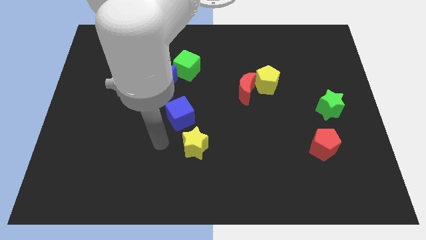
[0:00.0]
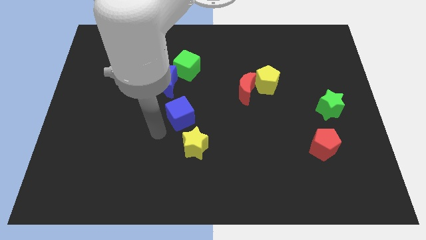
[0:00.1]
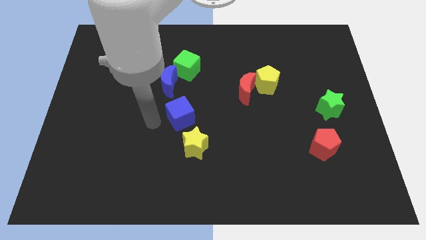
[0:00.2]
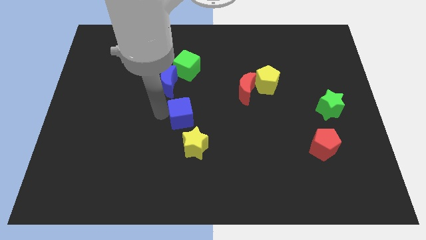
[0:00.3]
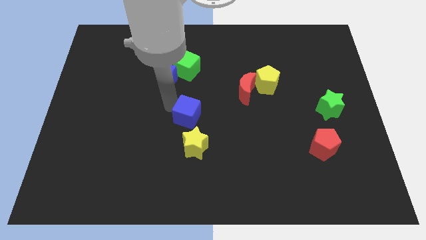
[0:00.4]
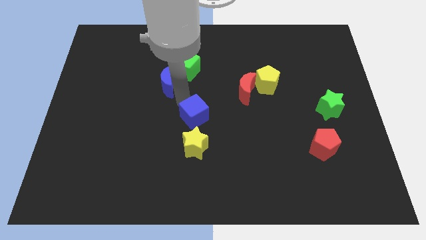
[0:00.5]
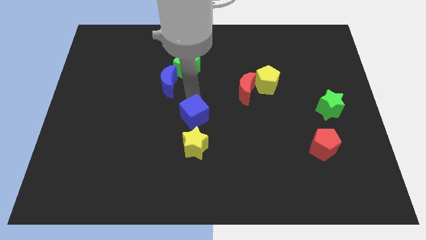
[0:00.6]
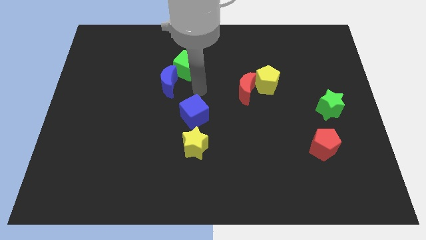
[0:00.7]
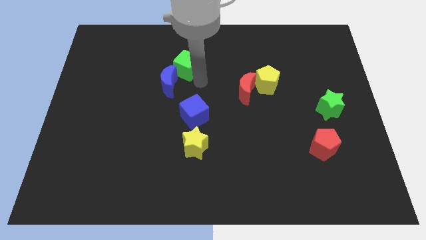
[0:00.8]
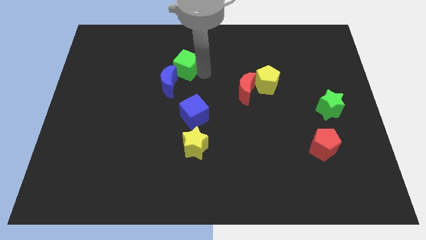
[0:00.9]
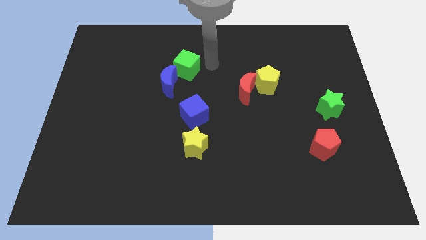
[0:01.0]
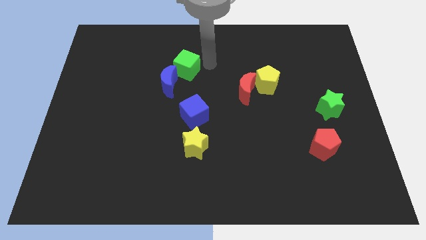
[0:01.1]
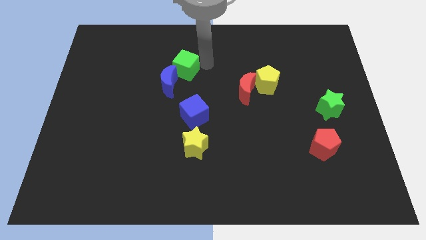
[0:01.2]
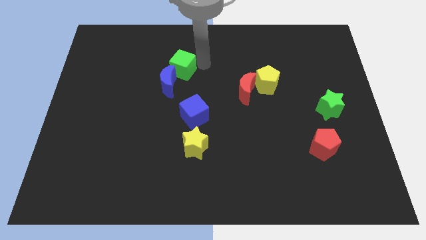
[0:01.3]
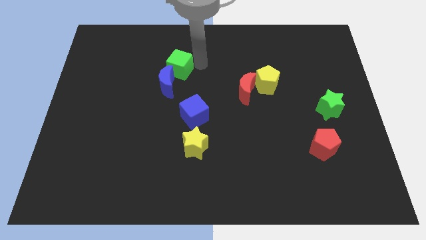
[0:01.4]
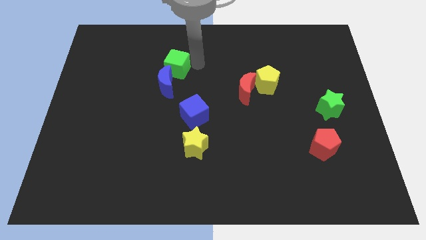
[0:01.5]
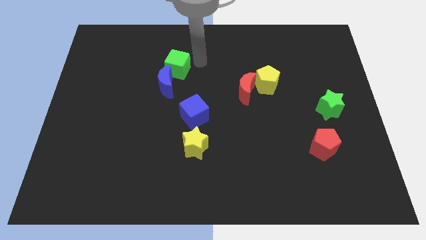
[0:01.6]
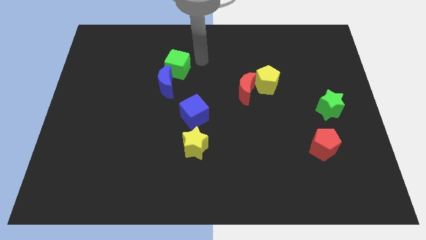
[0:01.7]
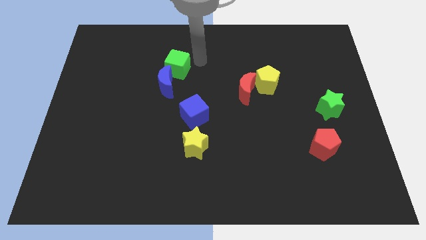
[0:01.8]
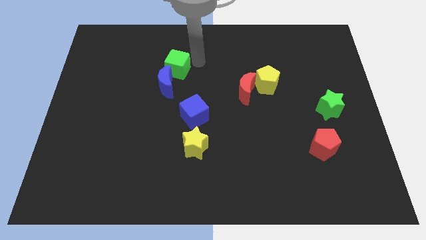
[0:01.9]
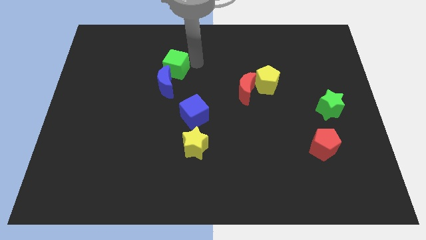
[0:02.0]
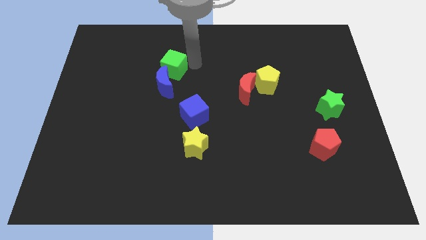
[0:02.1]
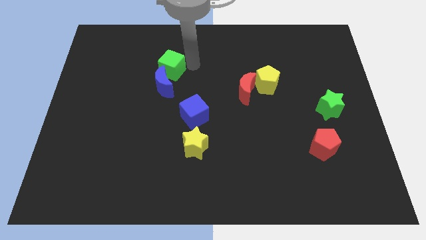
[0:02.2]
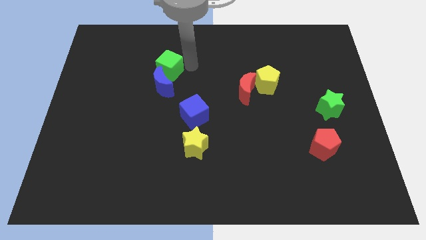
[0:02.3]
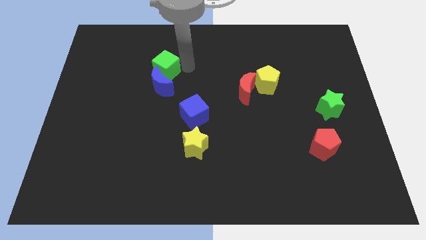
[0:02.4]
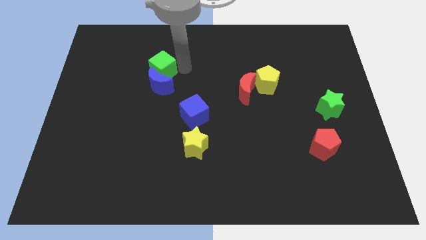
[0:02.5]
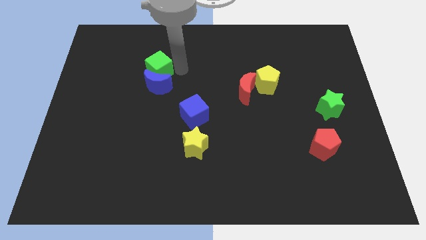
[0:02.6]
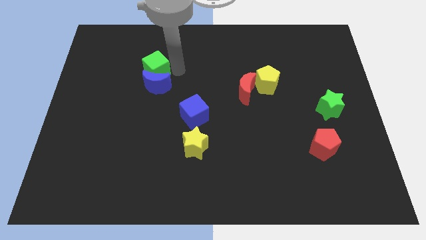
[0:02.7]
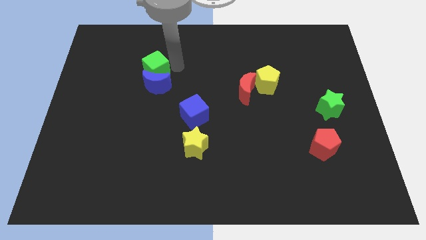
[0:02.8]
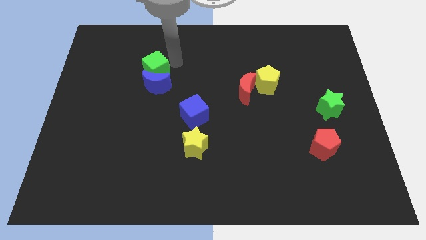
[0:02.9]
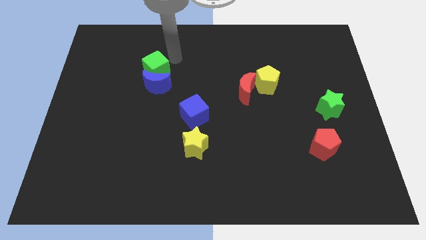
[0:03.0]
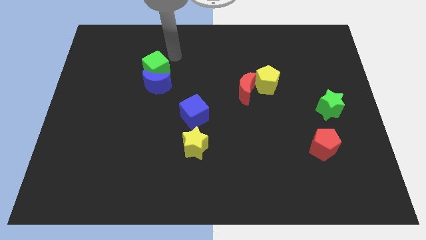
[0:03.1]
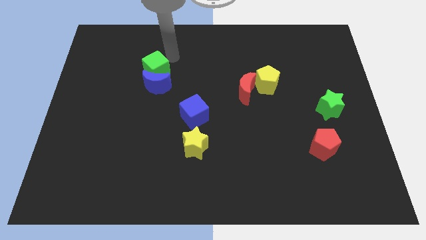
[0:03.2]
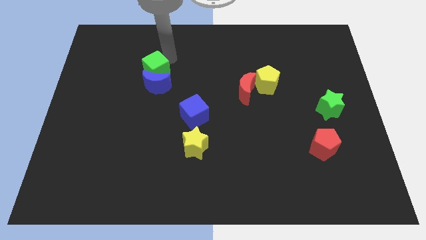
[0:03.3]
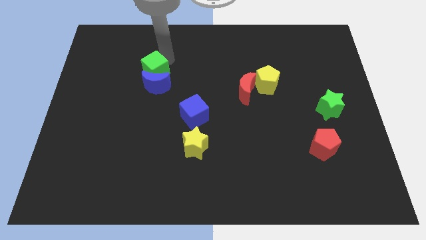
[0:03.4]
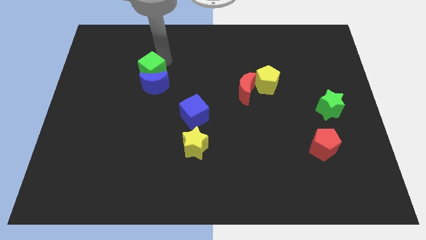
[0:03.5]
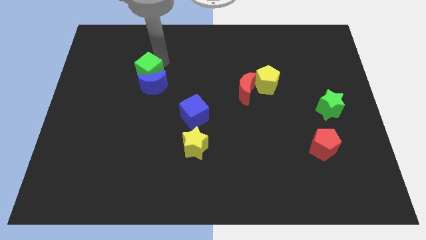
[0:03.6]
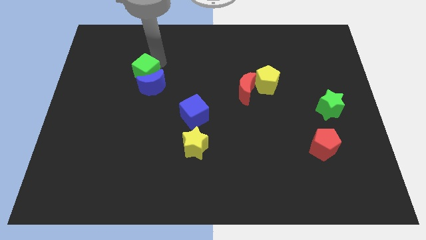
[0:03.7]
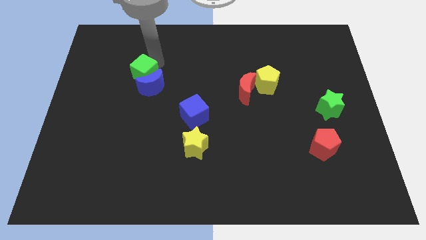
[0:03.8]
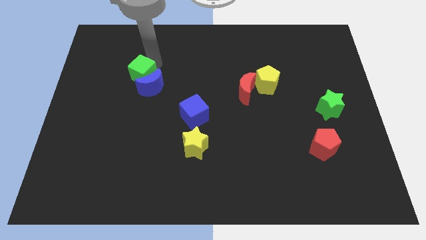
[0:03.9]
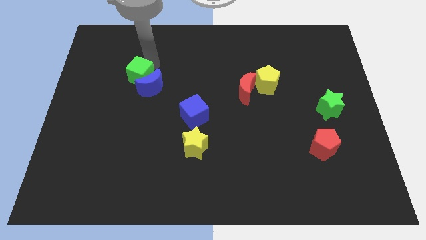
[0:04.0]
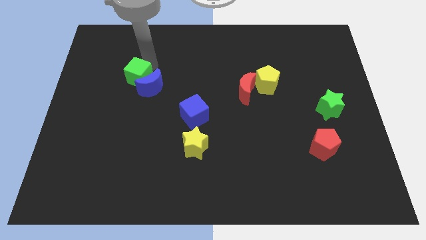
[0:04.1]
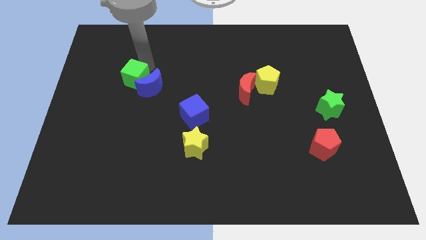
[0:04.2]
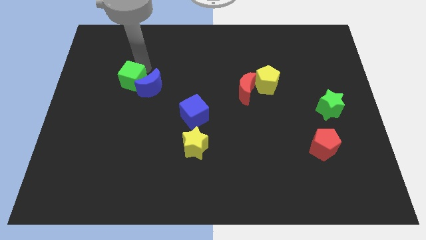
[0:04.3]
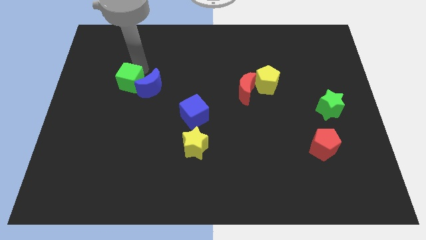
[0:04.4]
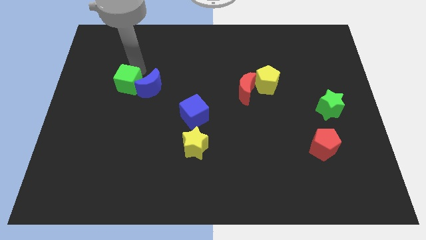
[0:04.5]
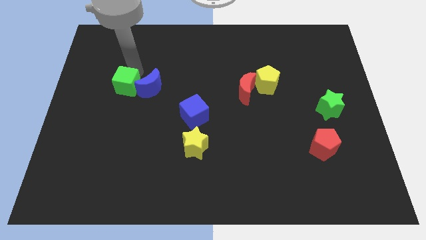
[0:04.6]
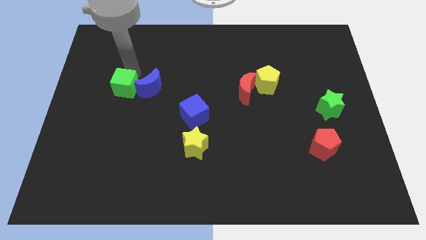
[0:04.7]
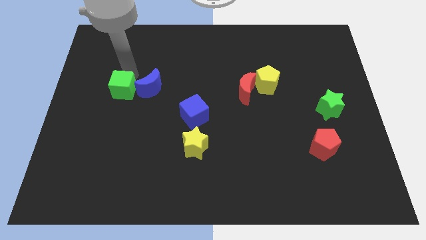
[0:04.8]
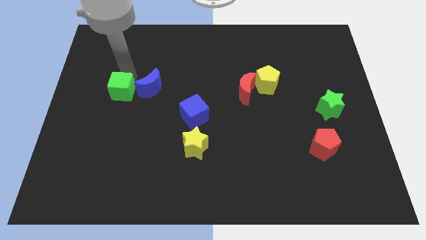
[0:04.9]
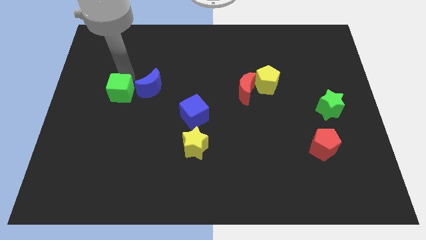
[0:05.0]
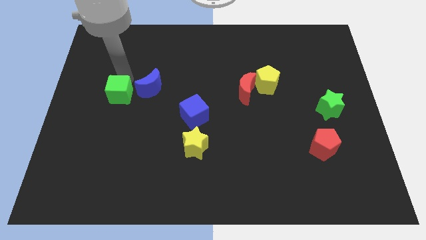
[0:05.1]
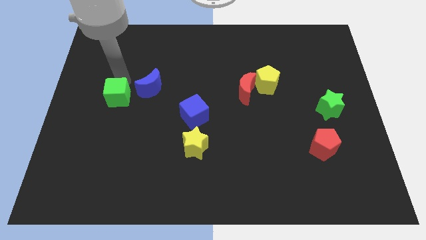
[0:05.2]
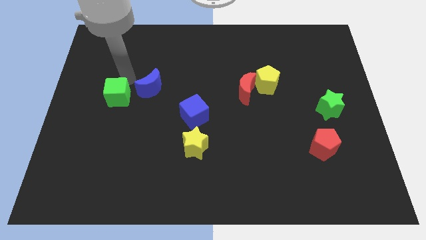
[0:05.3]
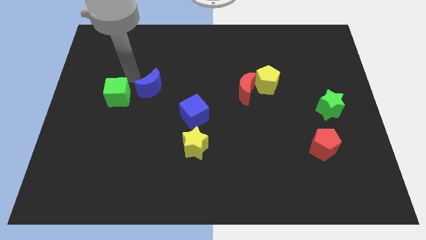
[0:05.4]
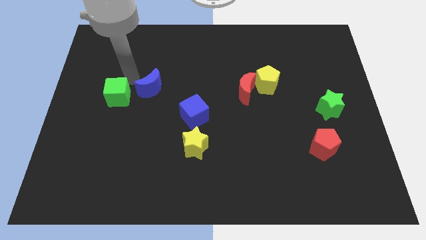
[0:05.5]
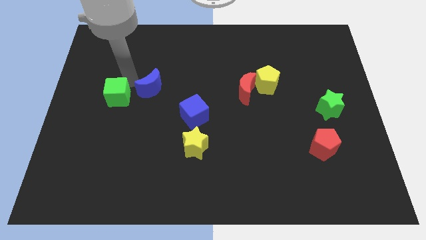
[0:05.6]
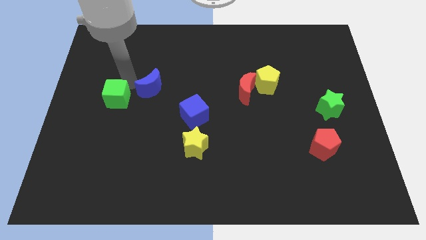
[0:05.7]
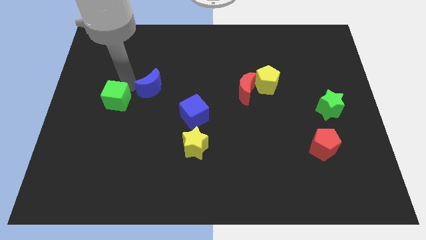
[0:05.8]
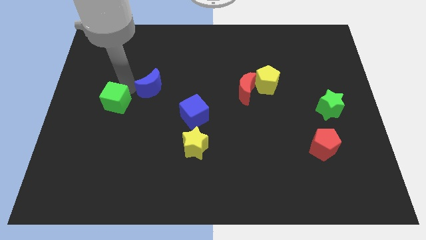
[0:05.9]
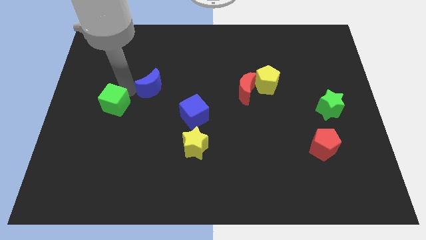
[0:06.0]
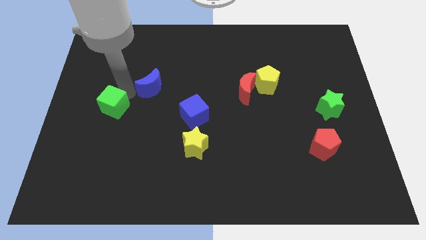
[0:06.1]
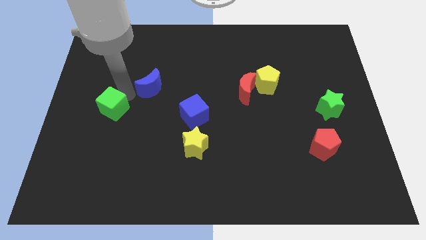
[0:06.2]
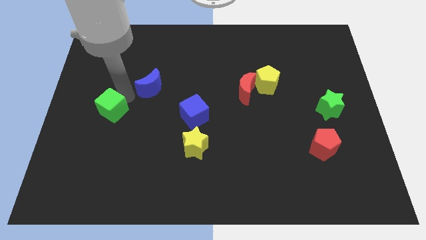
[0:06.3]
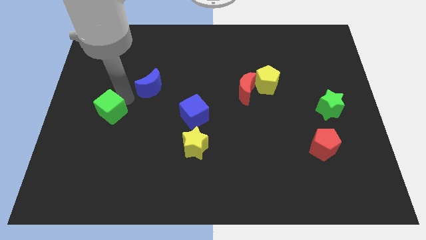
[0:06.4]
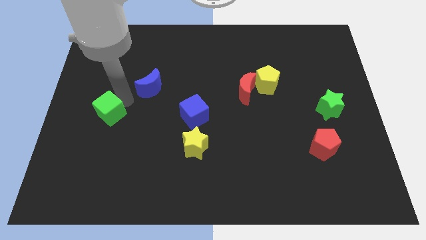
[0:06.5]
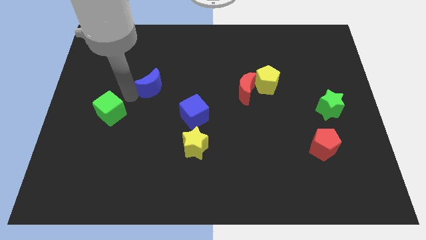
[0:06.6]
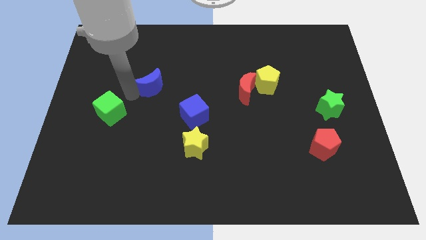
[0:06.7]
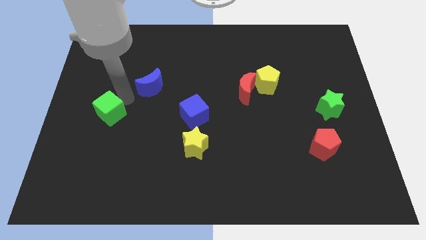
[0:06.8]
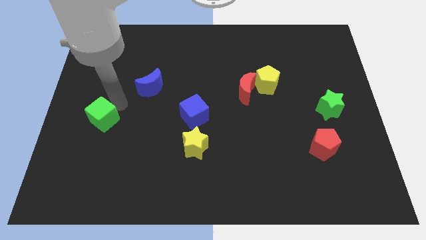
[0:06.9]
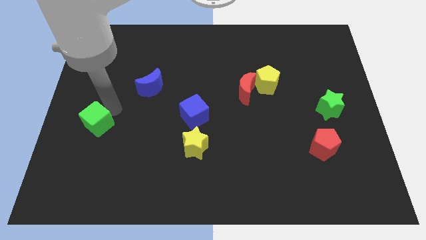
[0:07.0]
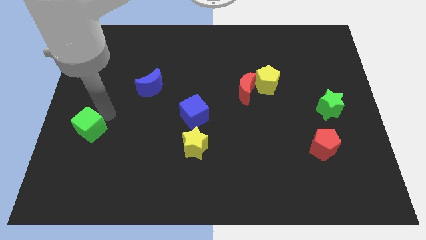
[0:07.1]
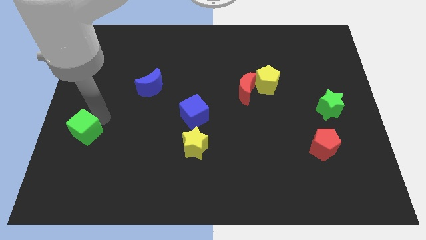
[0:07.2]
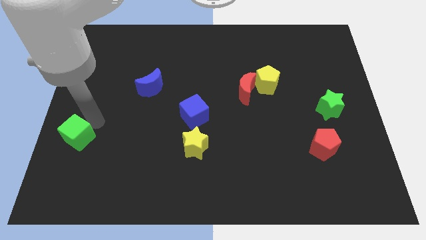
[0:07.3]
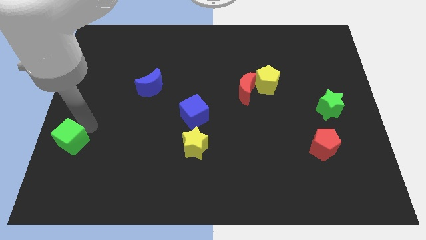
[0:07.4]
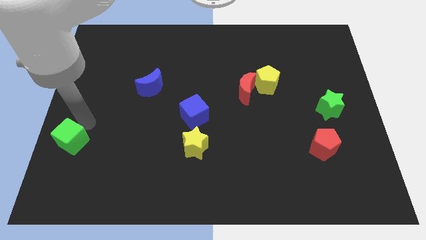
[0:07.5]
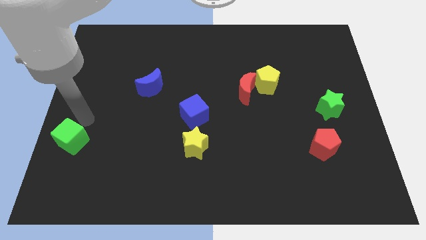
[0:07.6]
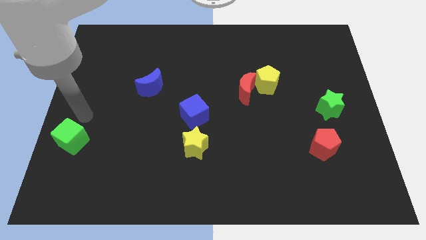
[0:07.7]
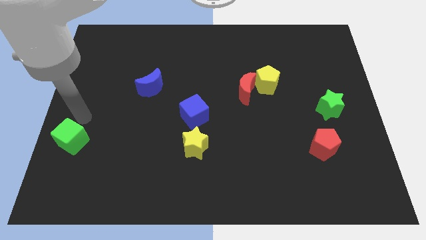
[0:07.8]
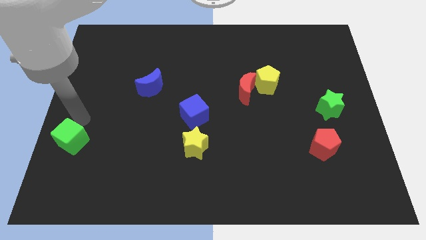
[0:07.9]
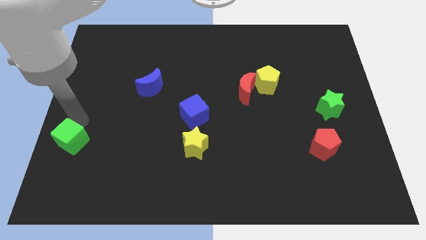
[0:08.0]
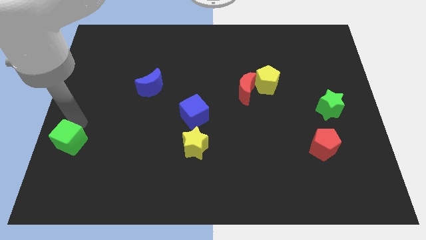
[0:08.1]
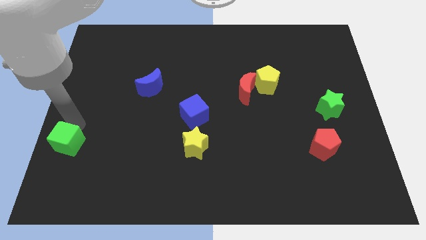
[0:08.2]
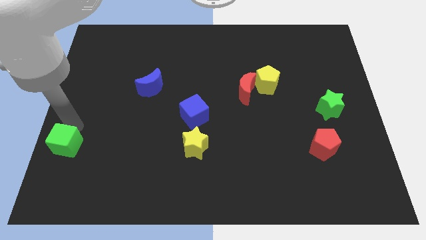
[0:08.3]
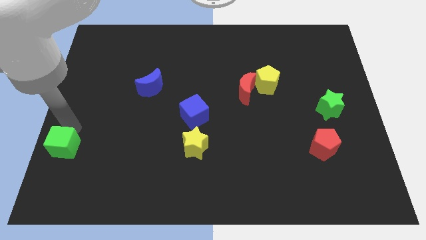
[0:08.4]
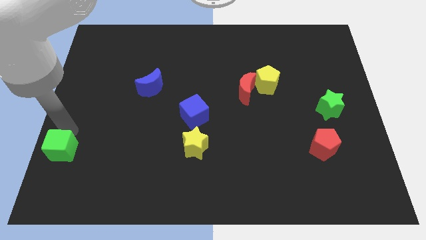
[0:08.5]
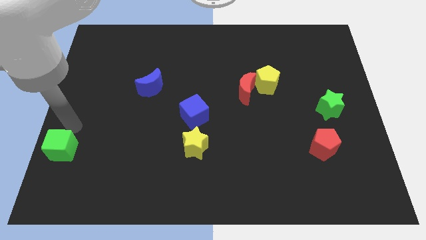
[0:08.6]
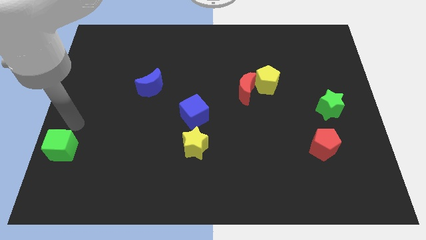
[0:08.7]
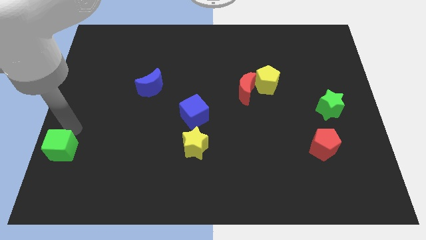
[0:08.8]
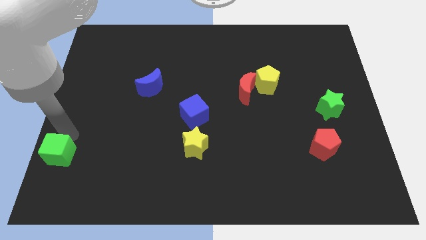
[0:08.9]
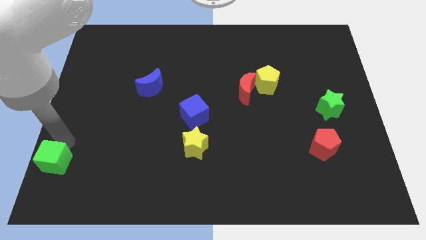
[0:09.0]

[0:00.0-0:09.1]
slide the green cube to the lower left corner
